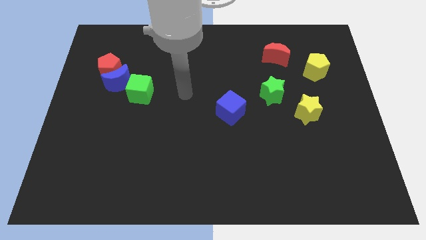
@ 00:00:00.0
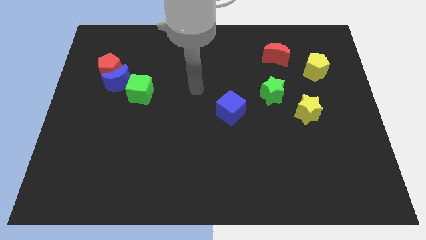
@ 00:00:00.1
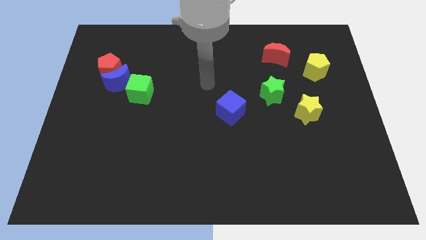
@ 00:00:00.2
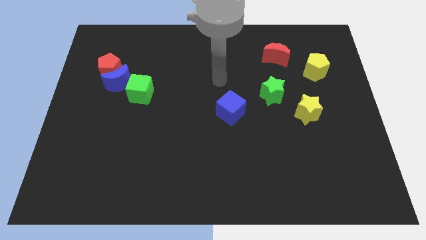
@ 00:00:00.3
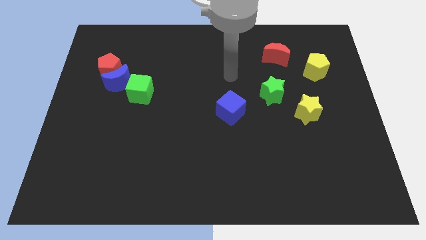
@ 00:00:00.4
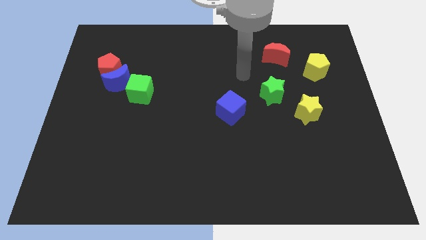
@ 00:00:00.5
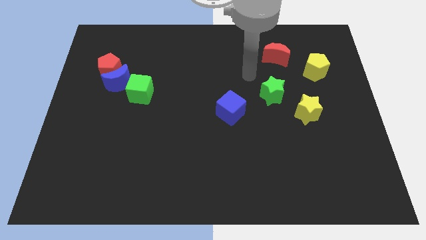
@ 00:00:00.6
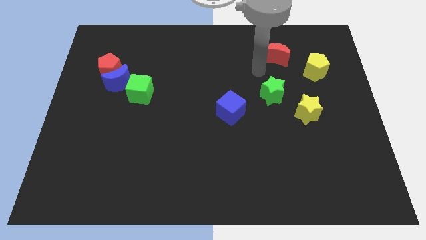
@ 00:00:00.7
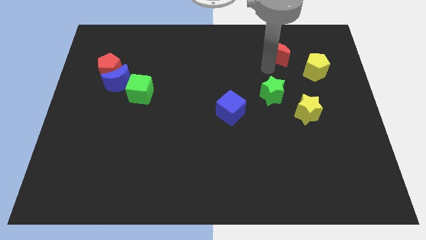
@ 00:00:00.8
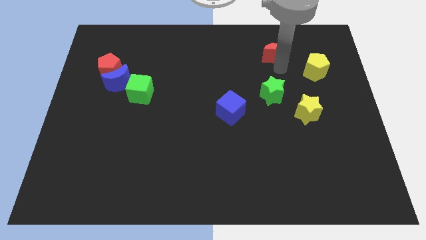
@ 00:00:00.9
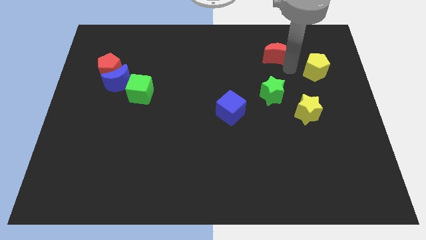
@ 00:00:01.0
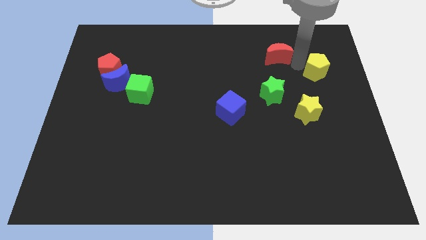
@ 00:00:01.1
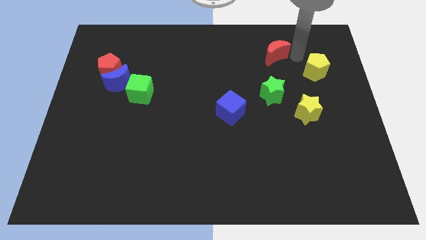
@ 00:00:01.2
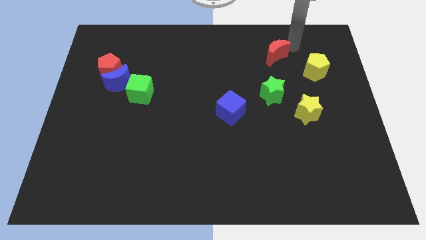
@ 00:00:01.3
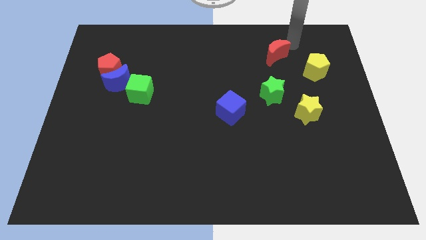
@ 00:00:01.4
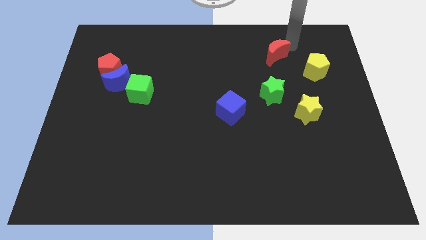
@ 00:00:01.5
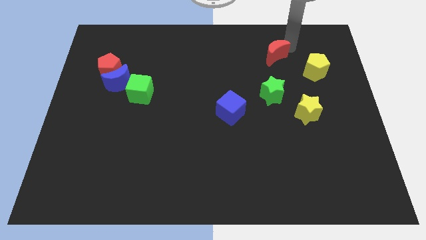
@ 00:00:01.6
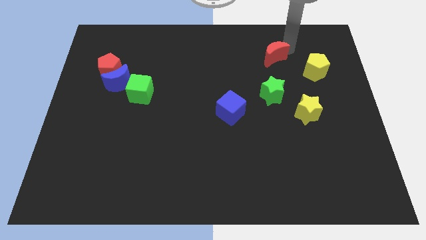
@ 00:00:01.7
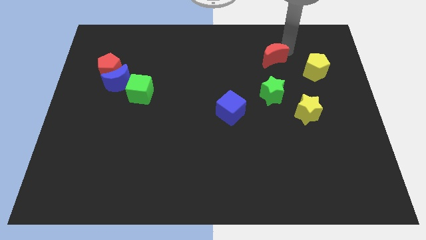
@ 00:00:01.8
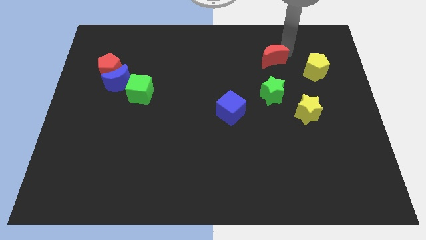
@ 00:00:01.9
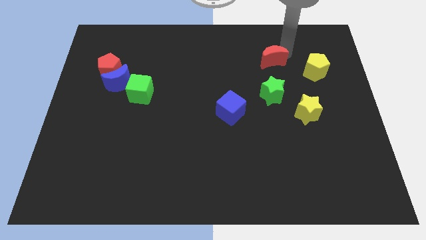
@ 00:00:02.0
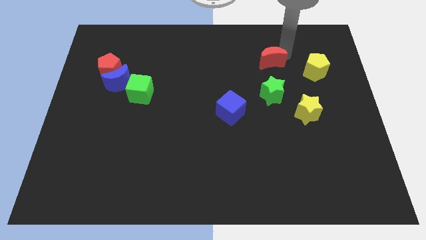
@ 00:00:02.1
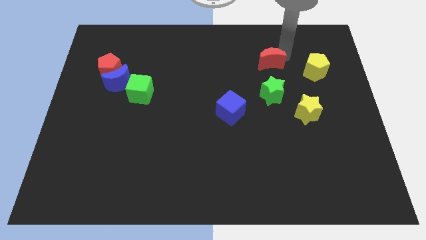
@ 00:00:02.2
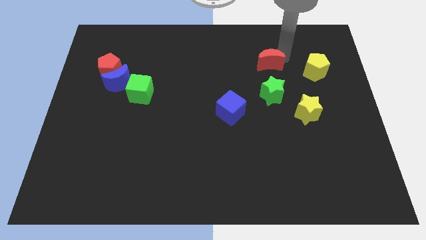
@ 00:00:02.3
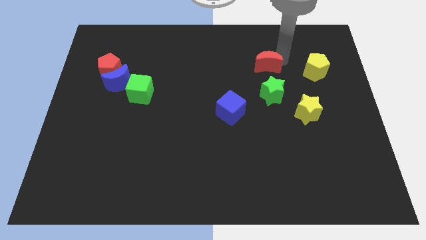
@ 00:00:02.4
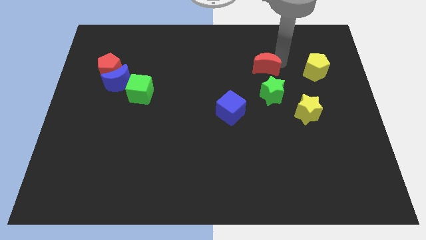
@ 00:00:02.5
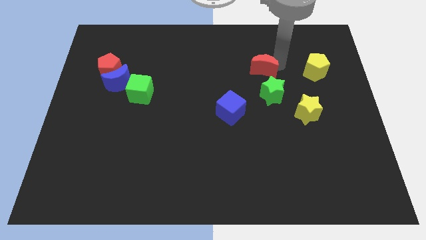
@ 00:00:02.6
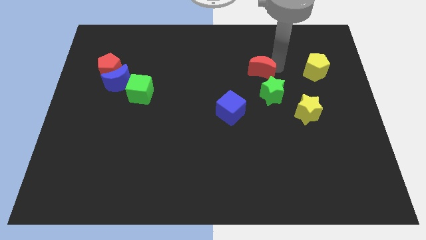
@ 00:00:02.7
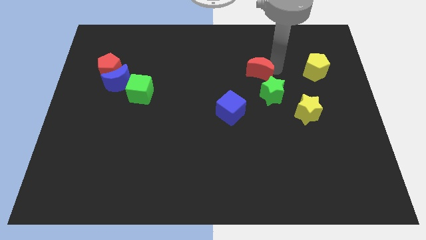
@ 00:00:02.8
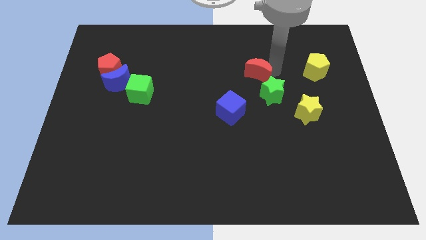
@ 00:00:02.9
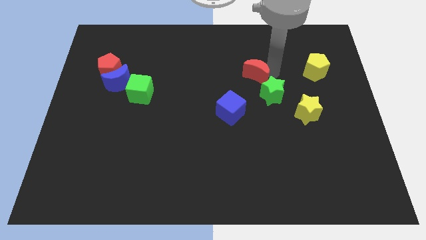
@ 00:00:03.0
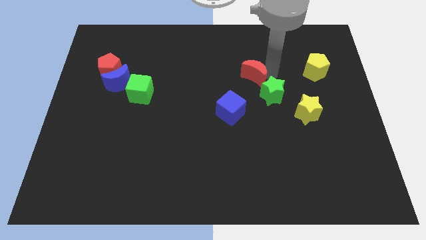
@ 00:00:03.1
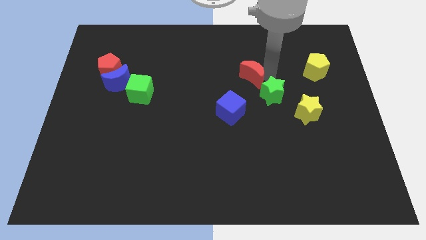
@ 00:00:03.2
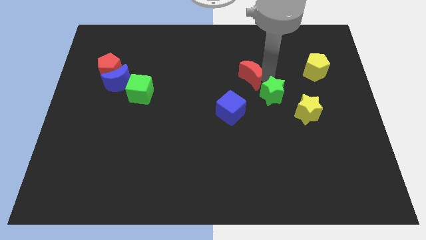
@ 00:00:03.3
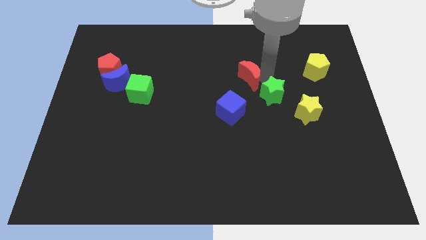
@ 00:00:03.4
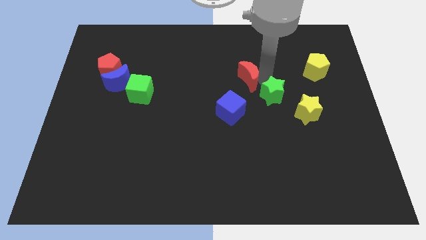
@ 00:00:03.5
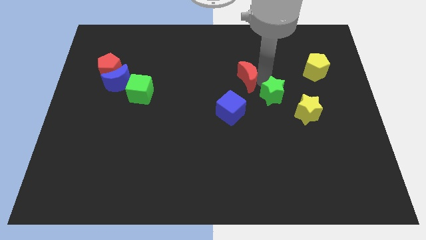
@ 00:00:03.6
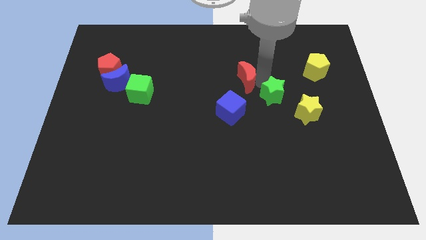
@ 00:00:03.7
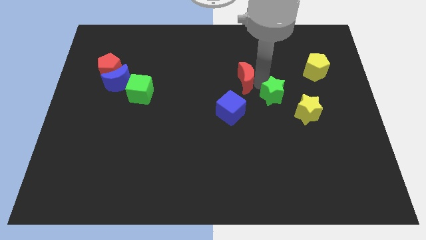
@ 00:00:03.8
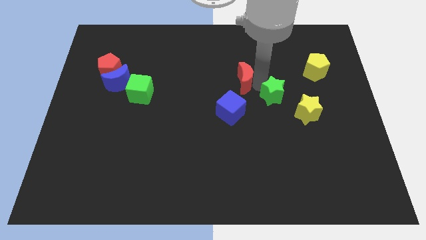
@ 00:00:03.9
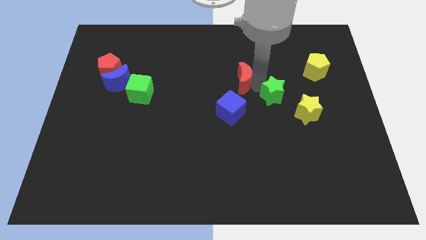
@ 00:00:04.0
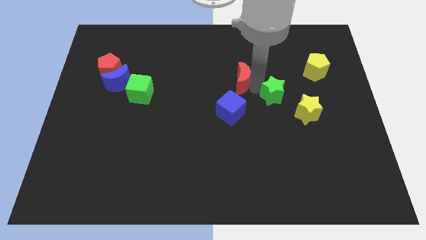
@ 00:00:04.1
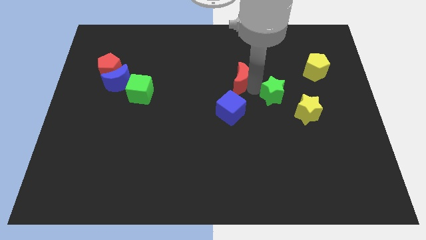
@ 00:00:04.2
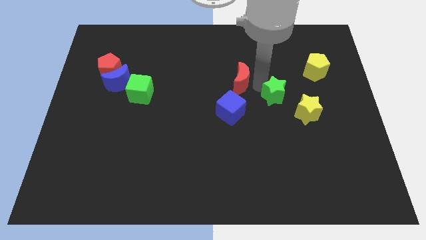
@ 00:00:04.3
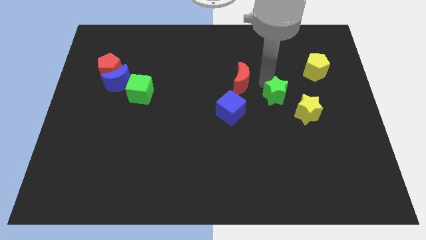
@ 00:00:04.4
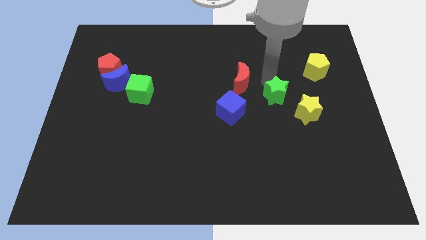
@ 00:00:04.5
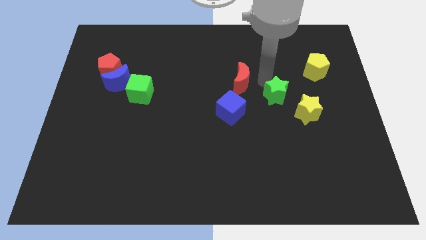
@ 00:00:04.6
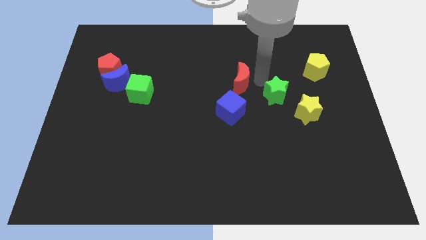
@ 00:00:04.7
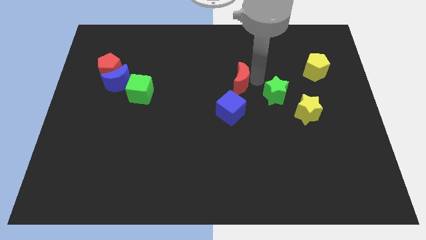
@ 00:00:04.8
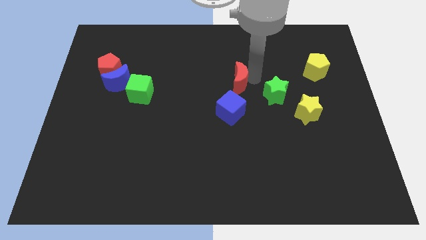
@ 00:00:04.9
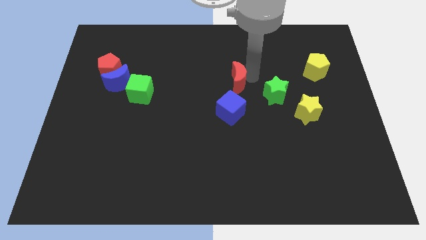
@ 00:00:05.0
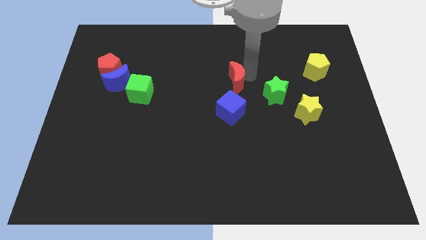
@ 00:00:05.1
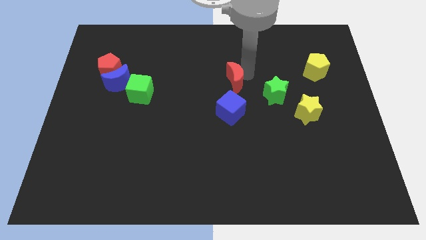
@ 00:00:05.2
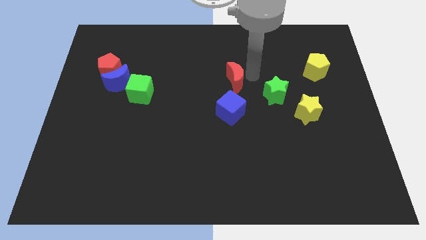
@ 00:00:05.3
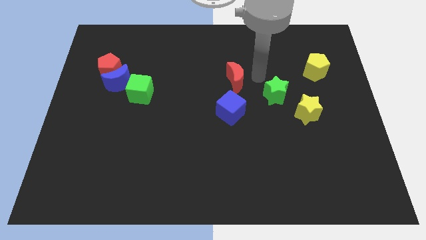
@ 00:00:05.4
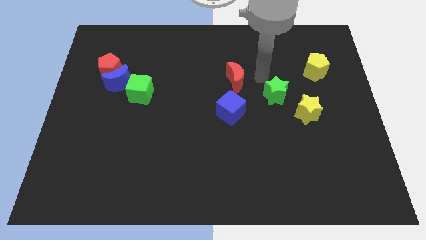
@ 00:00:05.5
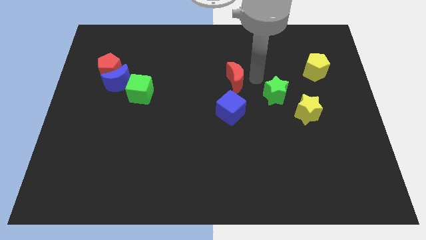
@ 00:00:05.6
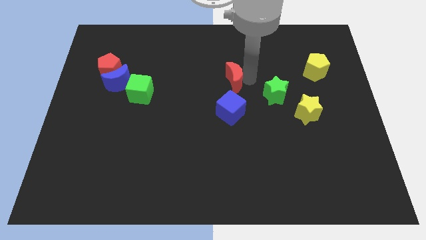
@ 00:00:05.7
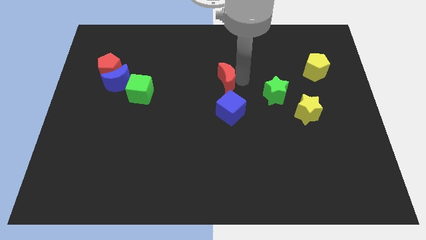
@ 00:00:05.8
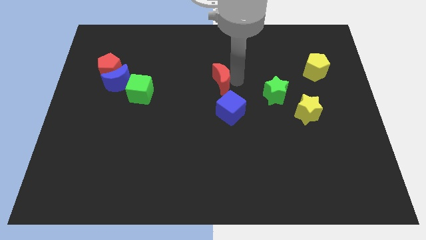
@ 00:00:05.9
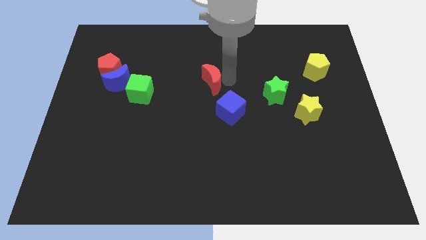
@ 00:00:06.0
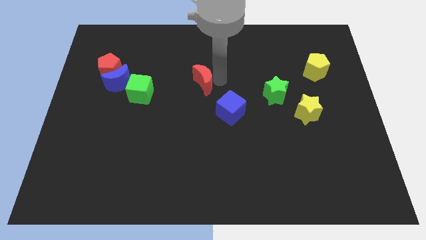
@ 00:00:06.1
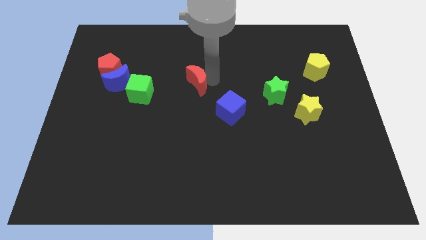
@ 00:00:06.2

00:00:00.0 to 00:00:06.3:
push the red moon to the right of the green cube
